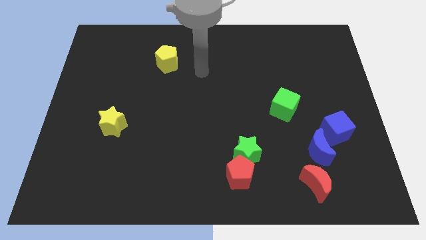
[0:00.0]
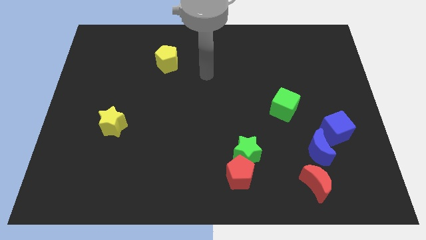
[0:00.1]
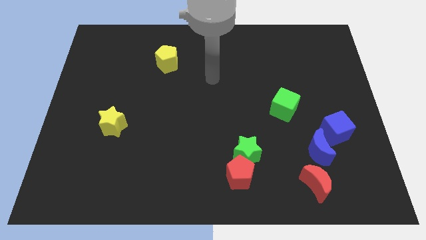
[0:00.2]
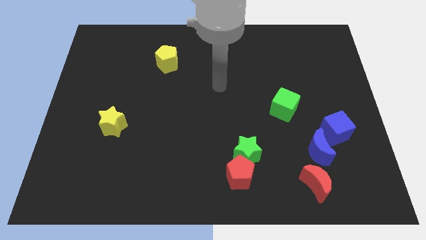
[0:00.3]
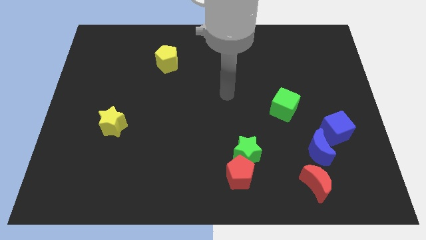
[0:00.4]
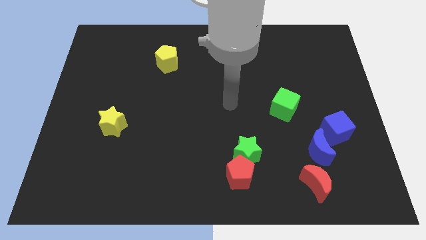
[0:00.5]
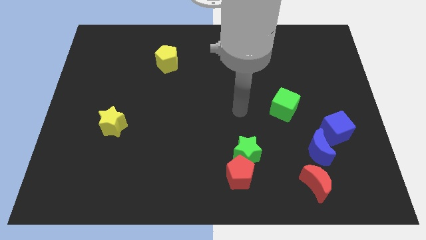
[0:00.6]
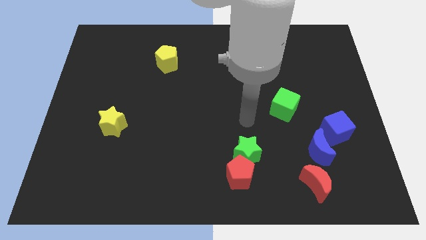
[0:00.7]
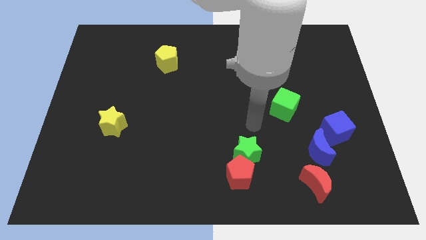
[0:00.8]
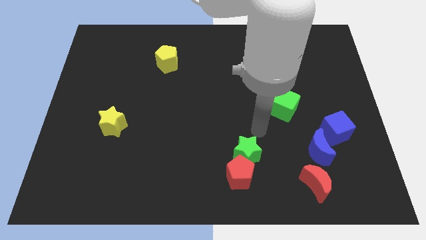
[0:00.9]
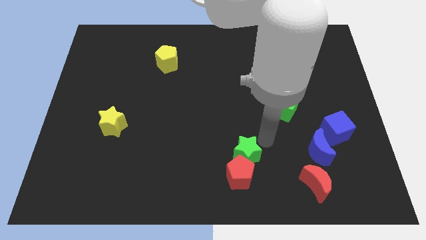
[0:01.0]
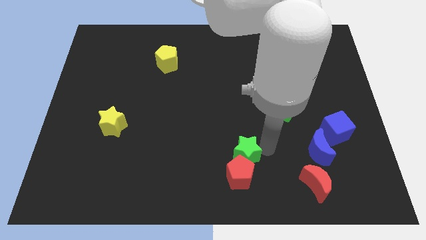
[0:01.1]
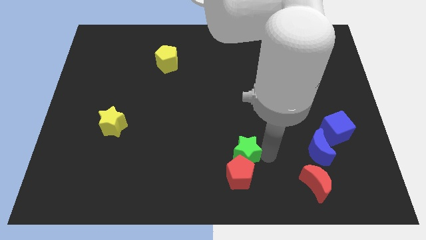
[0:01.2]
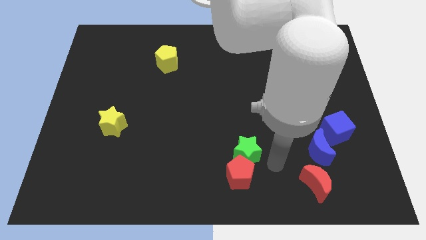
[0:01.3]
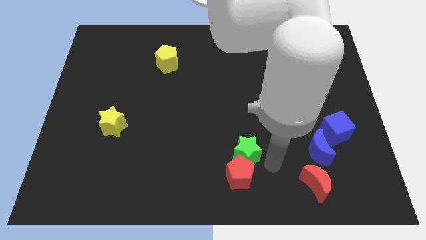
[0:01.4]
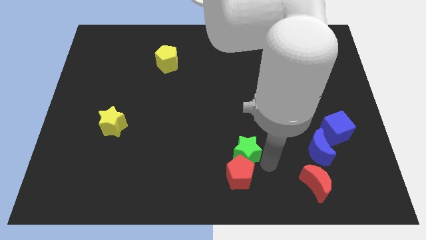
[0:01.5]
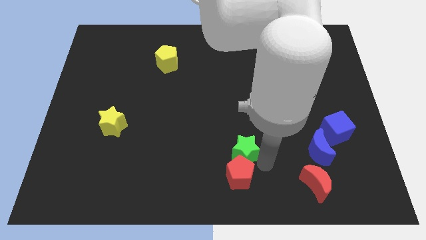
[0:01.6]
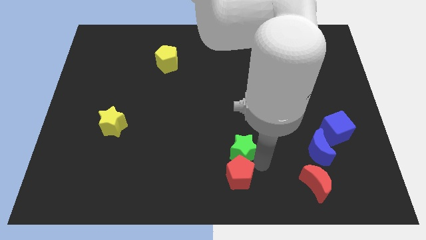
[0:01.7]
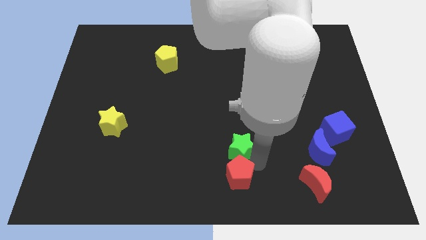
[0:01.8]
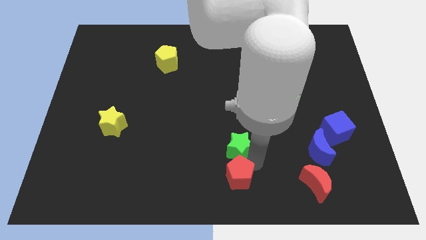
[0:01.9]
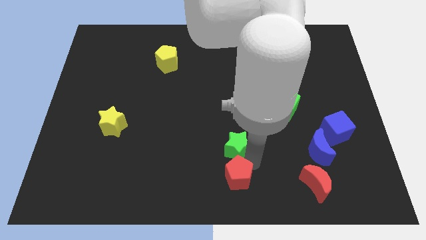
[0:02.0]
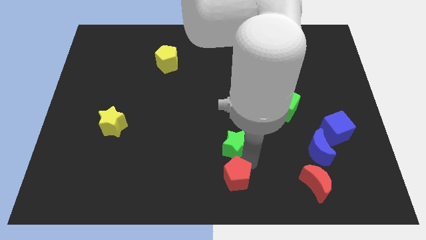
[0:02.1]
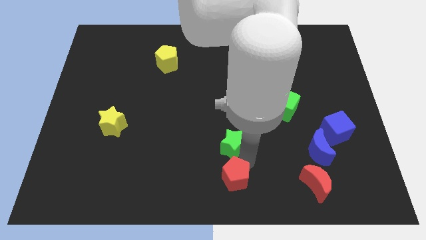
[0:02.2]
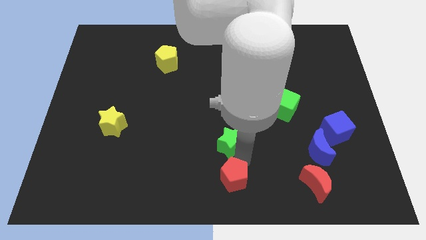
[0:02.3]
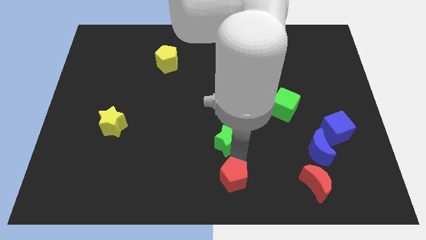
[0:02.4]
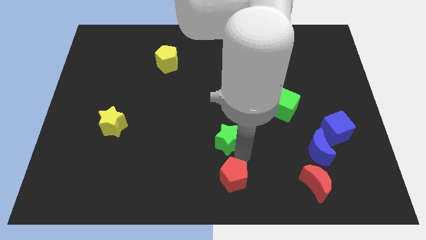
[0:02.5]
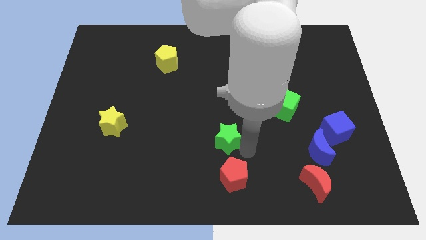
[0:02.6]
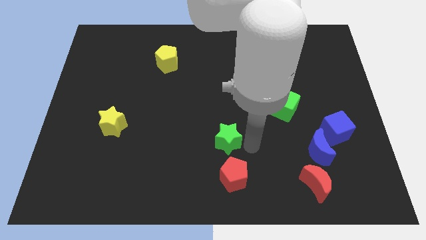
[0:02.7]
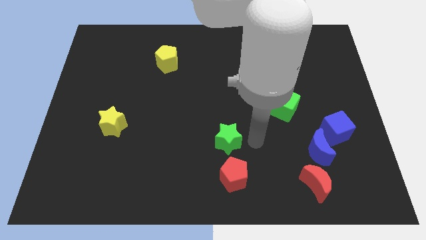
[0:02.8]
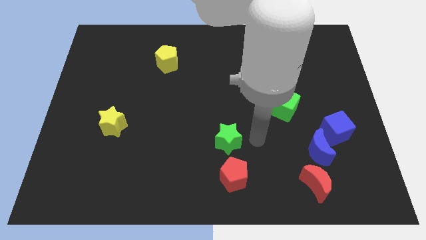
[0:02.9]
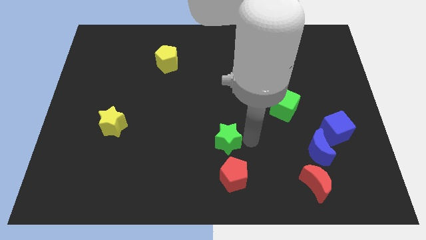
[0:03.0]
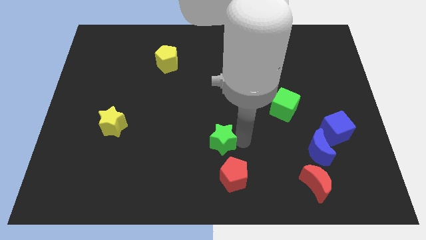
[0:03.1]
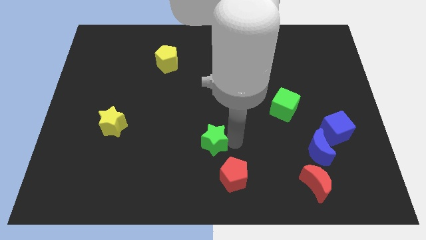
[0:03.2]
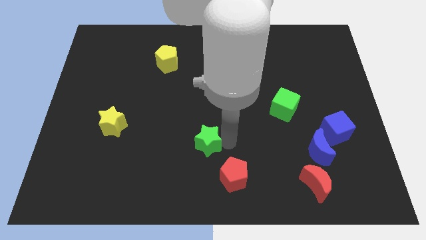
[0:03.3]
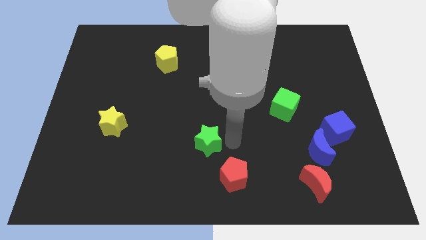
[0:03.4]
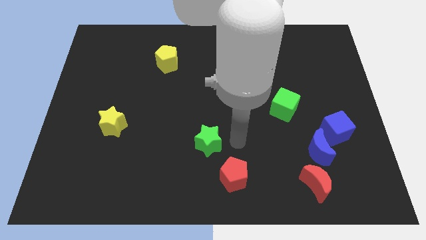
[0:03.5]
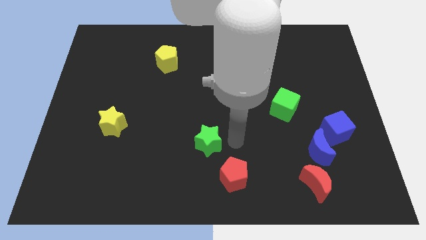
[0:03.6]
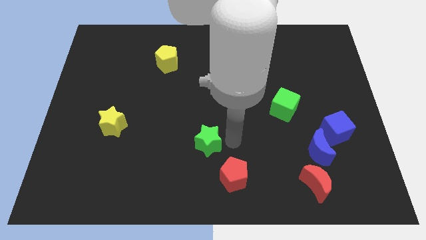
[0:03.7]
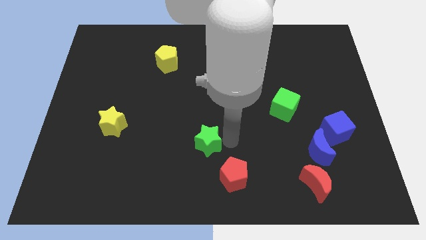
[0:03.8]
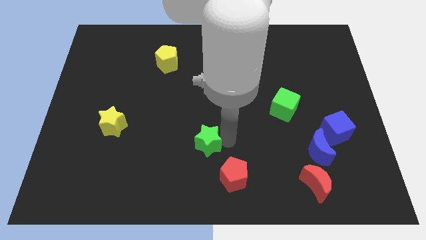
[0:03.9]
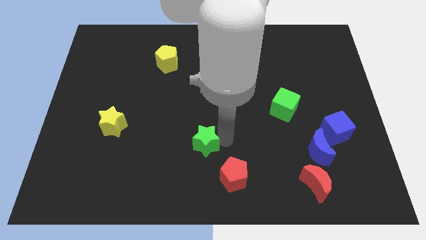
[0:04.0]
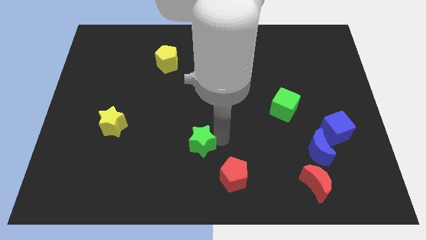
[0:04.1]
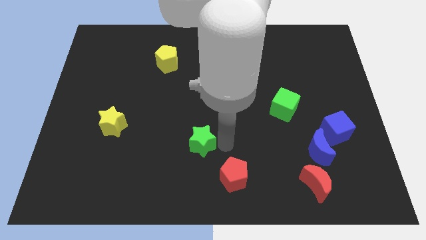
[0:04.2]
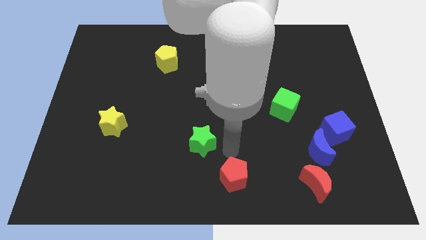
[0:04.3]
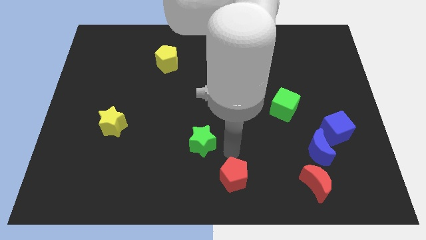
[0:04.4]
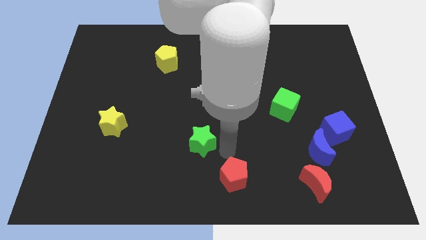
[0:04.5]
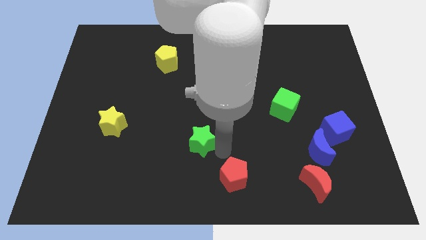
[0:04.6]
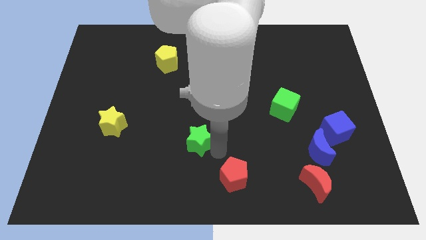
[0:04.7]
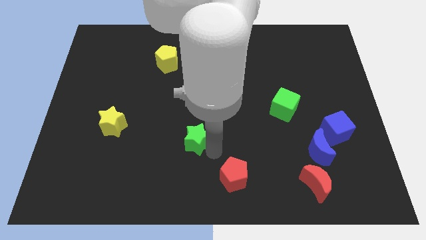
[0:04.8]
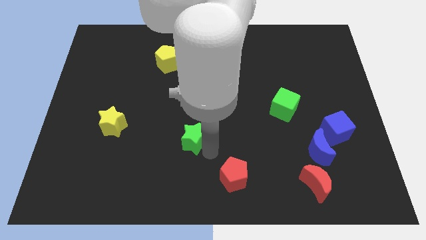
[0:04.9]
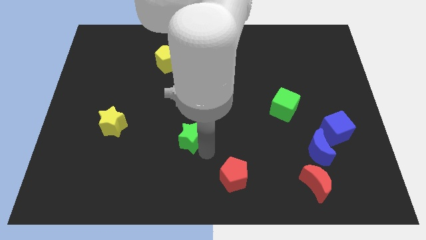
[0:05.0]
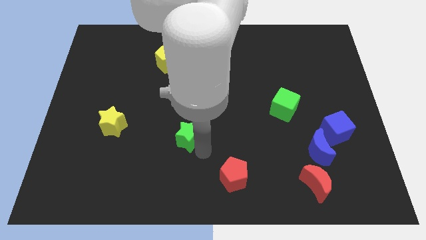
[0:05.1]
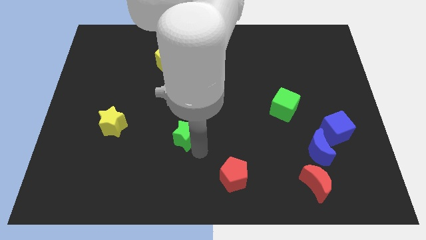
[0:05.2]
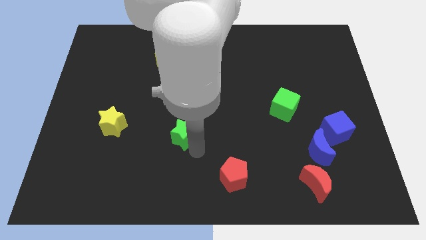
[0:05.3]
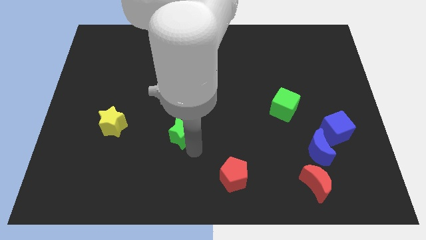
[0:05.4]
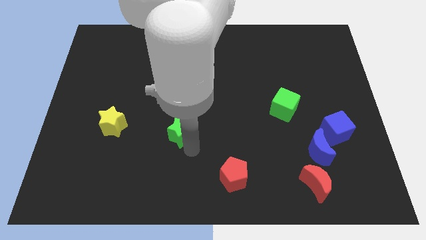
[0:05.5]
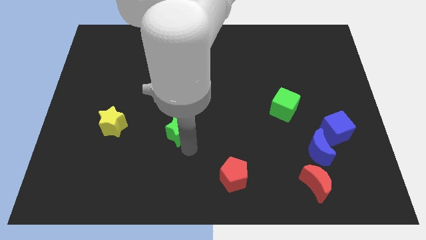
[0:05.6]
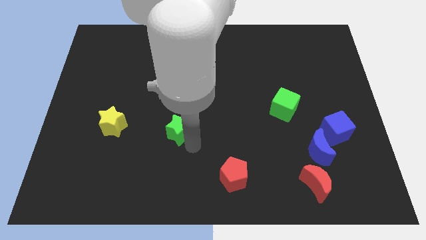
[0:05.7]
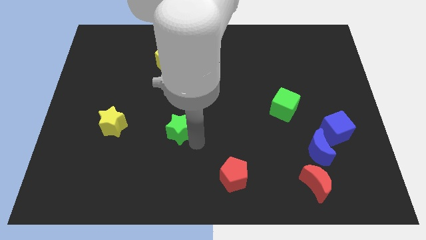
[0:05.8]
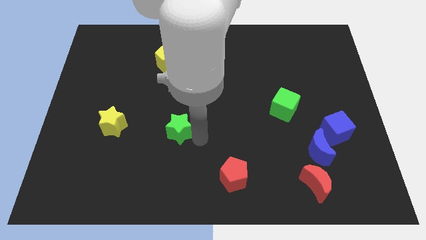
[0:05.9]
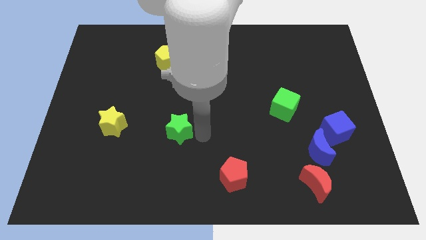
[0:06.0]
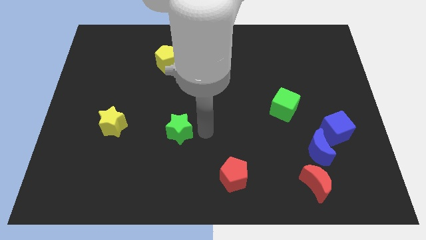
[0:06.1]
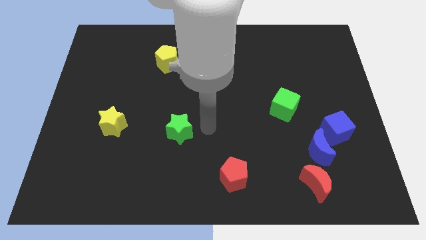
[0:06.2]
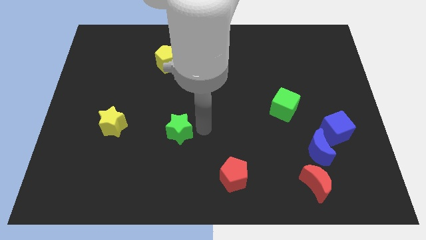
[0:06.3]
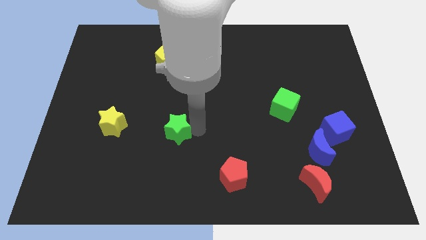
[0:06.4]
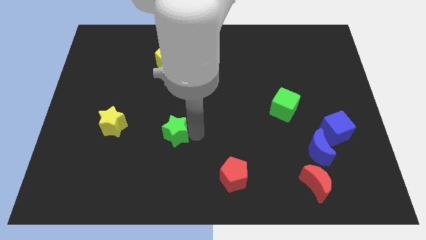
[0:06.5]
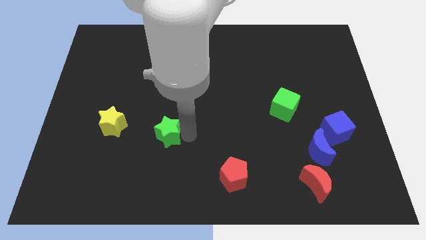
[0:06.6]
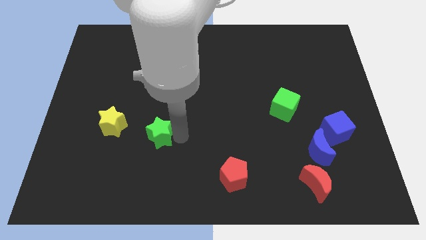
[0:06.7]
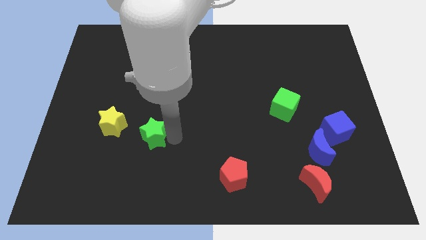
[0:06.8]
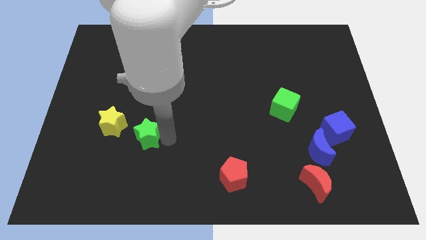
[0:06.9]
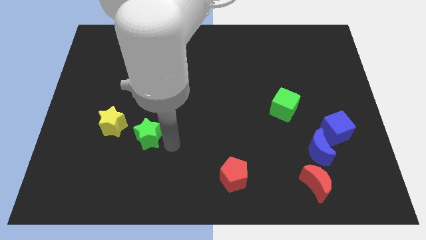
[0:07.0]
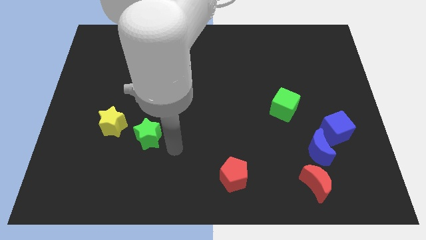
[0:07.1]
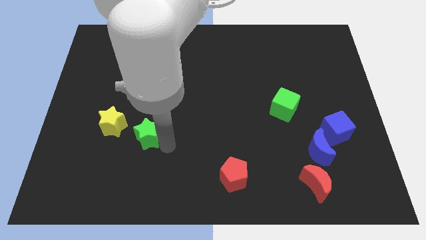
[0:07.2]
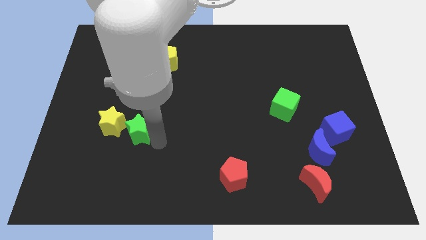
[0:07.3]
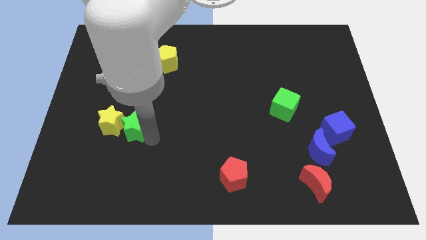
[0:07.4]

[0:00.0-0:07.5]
put the green star to the yellow star

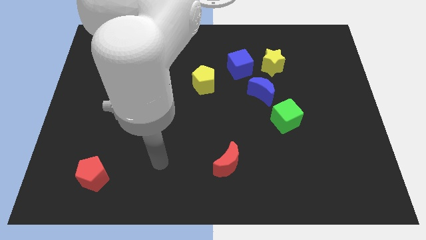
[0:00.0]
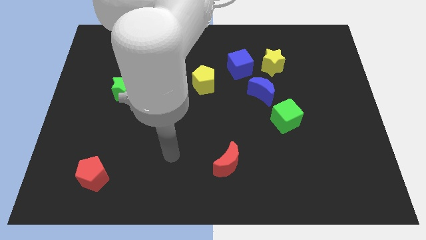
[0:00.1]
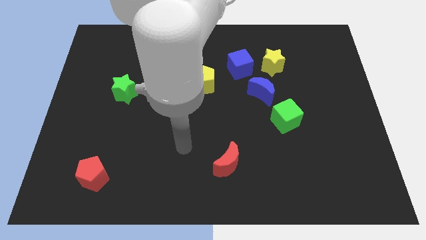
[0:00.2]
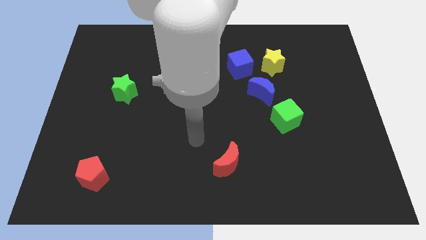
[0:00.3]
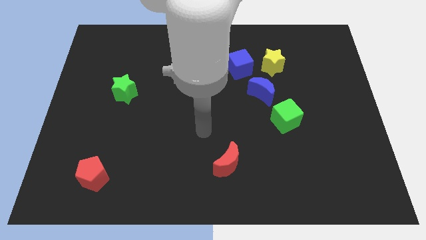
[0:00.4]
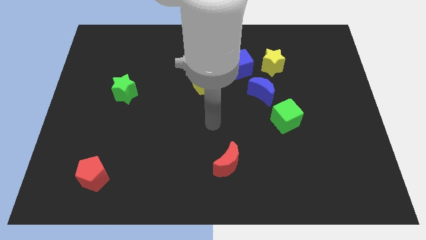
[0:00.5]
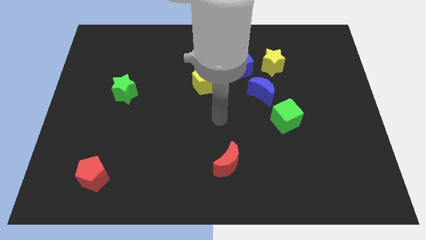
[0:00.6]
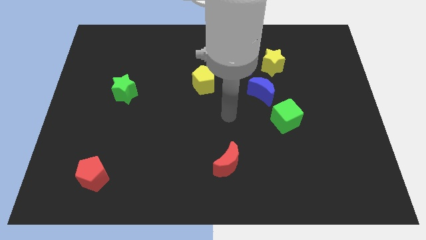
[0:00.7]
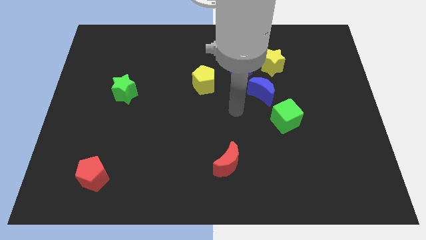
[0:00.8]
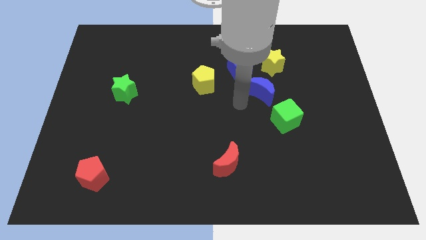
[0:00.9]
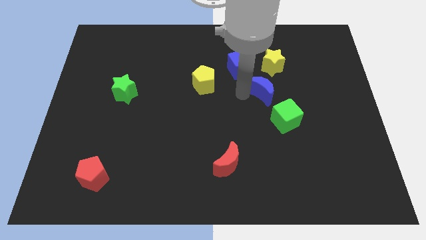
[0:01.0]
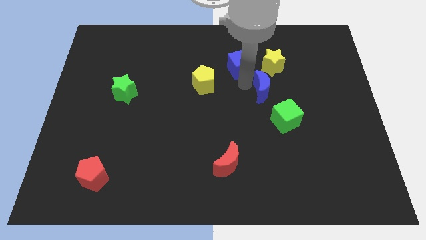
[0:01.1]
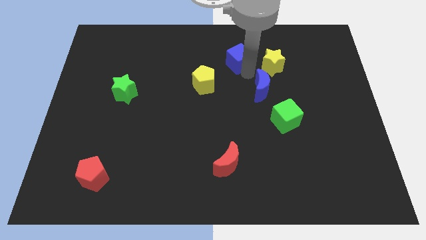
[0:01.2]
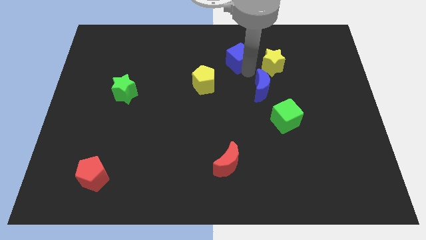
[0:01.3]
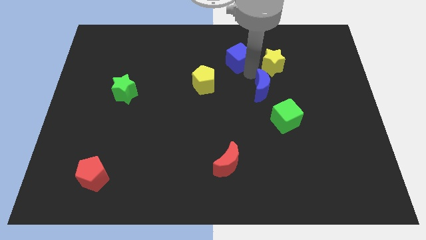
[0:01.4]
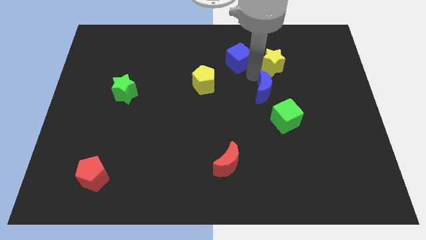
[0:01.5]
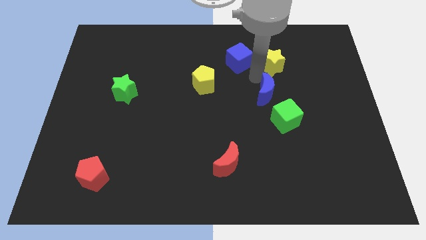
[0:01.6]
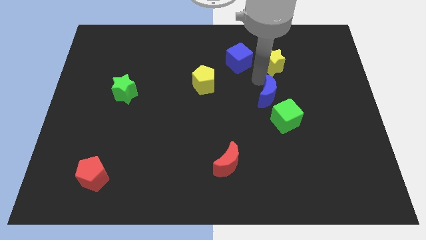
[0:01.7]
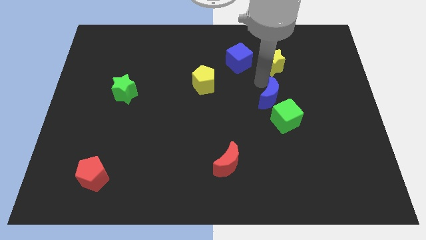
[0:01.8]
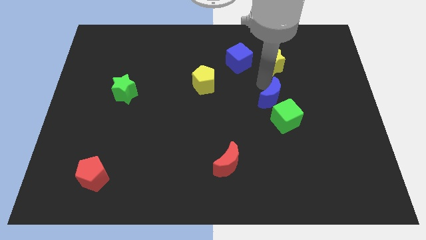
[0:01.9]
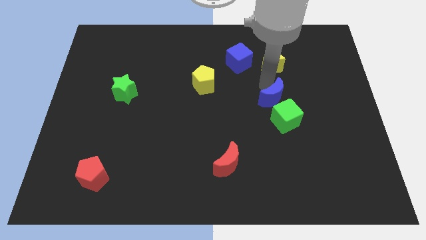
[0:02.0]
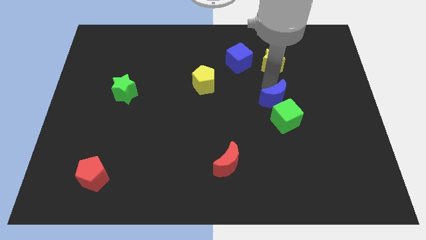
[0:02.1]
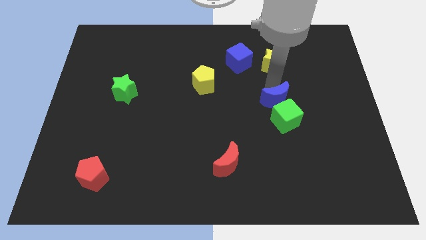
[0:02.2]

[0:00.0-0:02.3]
move the blue moon to the green cube
